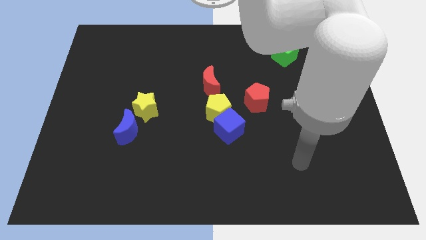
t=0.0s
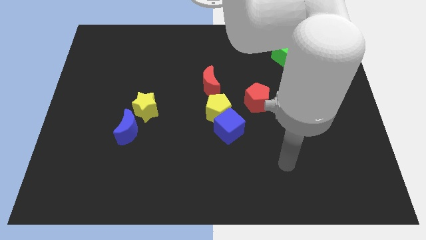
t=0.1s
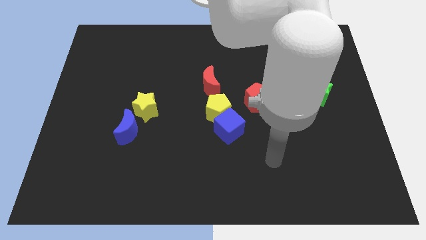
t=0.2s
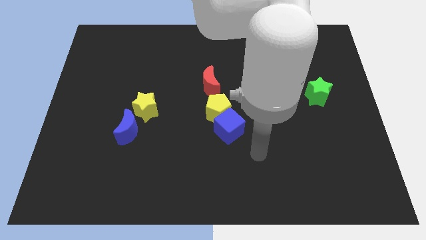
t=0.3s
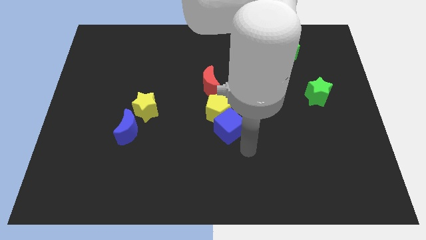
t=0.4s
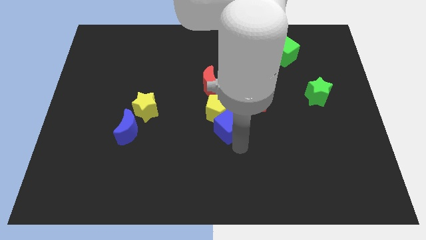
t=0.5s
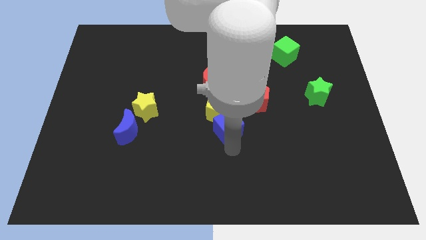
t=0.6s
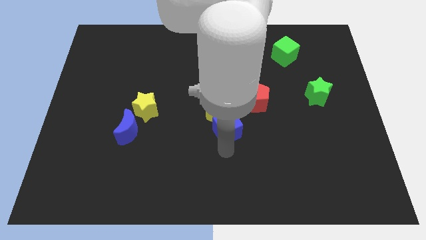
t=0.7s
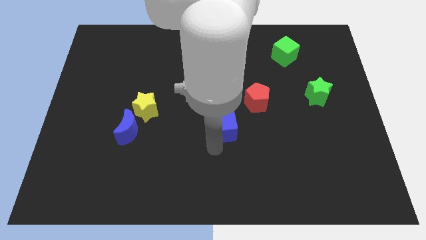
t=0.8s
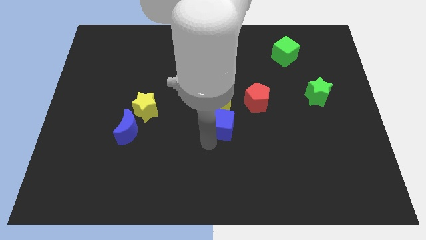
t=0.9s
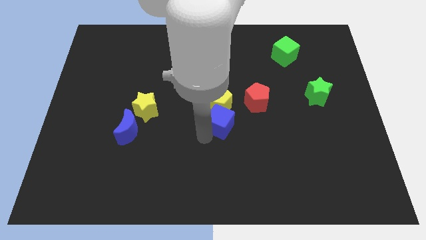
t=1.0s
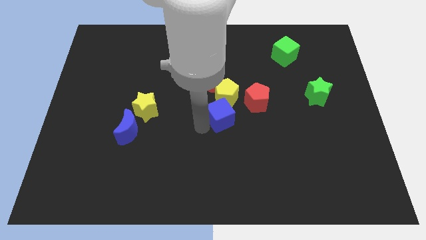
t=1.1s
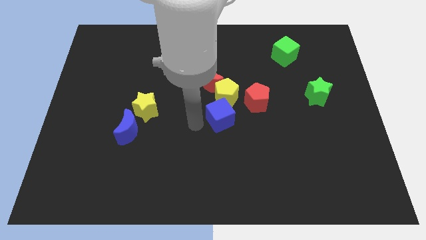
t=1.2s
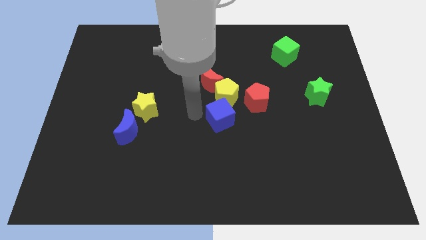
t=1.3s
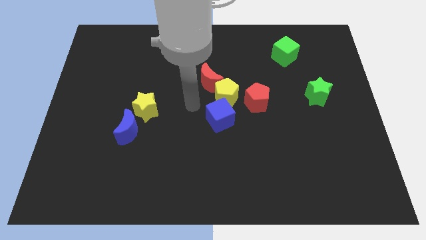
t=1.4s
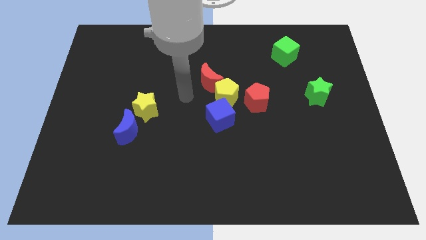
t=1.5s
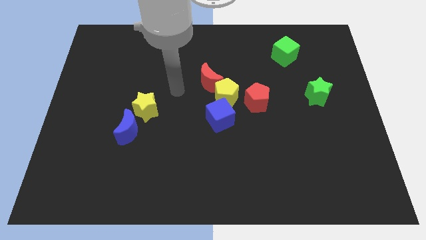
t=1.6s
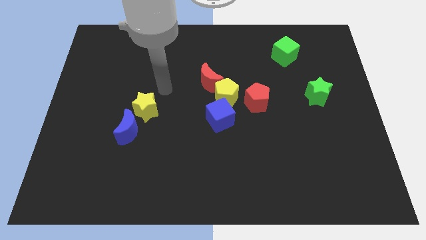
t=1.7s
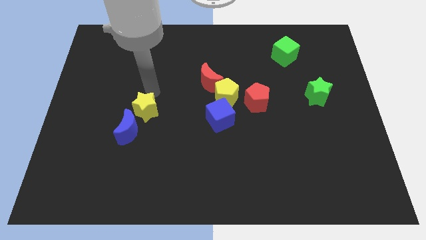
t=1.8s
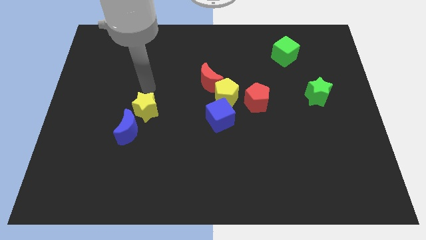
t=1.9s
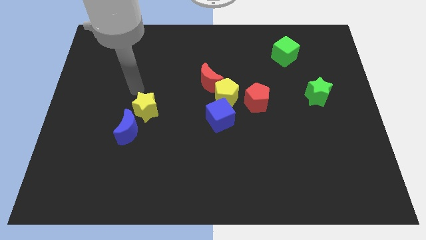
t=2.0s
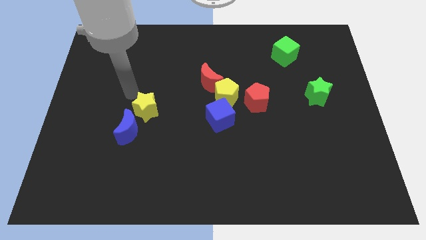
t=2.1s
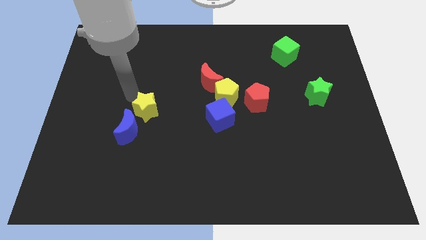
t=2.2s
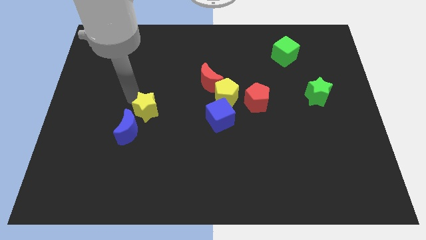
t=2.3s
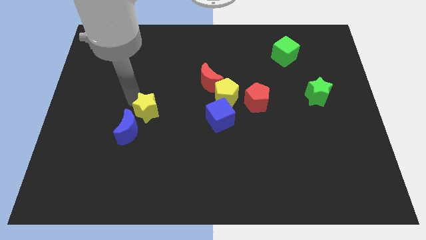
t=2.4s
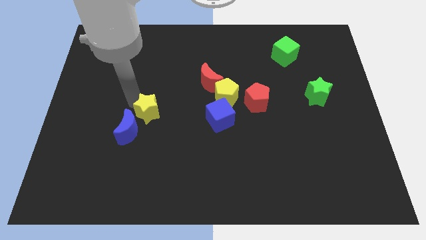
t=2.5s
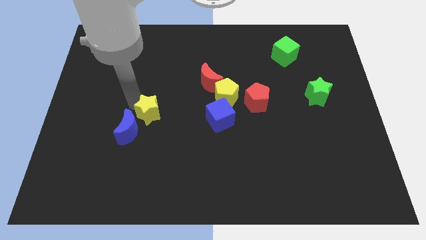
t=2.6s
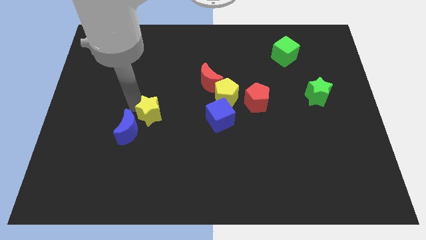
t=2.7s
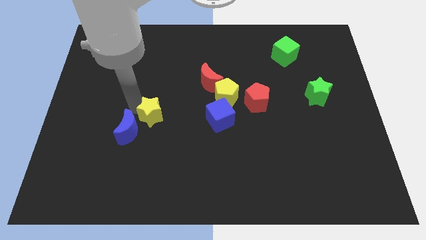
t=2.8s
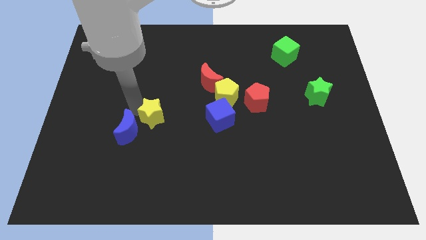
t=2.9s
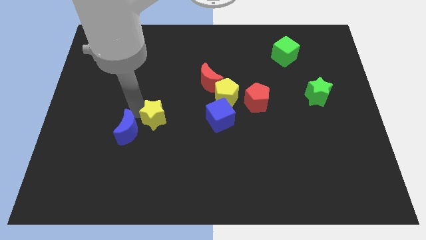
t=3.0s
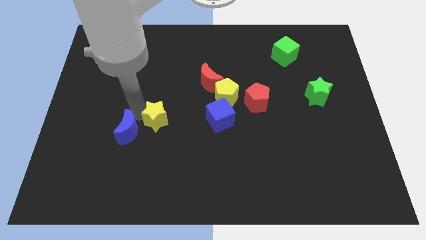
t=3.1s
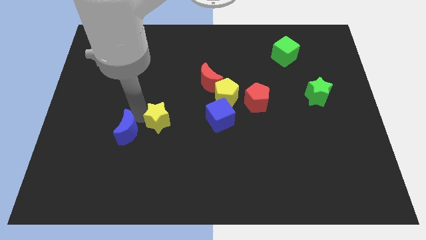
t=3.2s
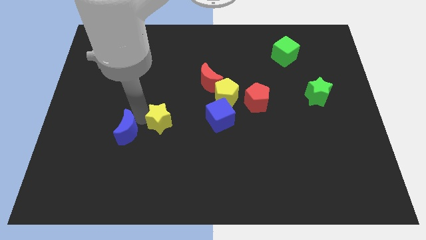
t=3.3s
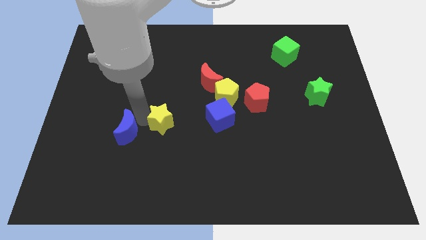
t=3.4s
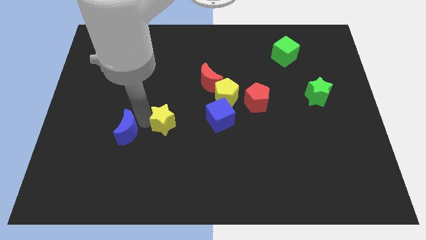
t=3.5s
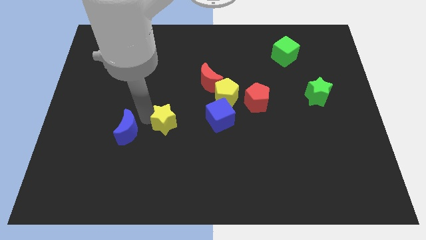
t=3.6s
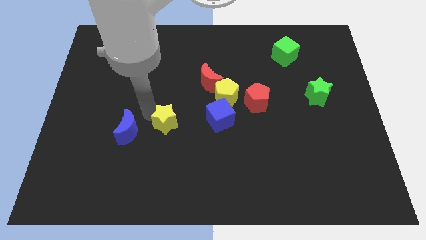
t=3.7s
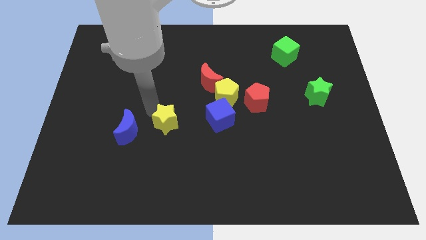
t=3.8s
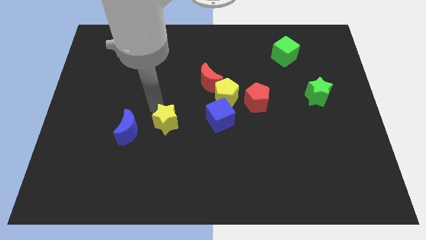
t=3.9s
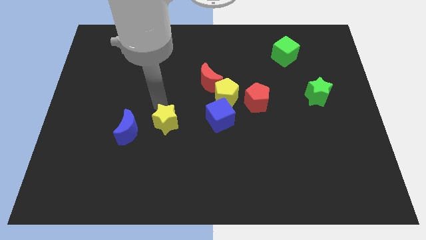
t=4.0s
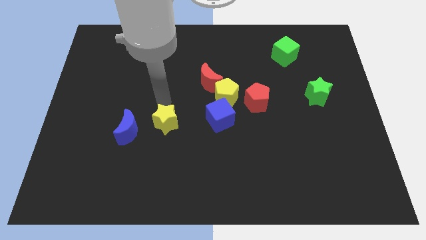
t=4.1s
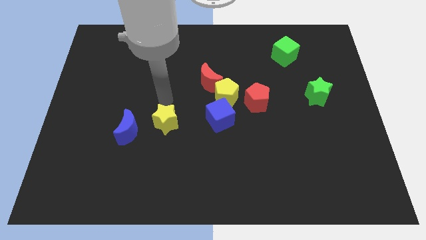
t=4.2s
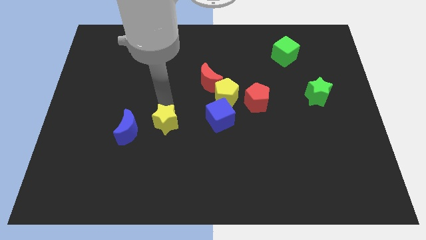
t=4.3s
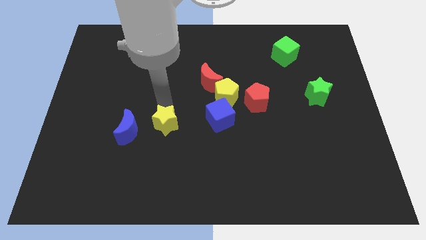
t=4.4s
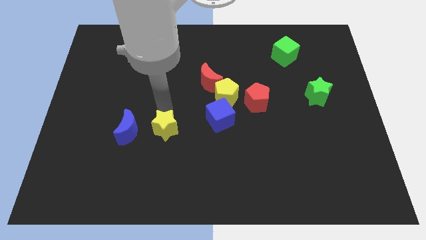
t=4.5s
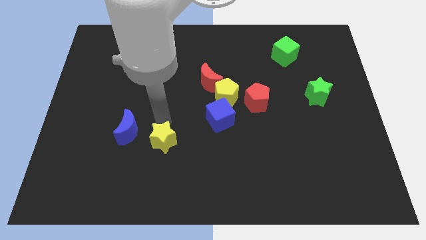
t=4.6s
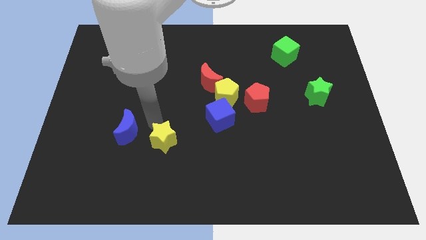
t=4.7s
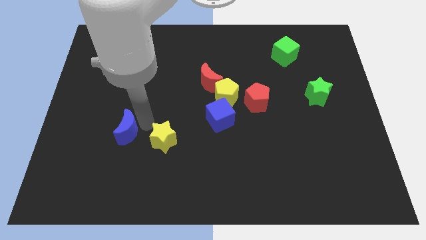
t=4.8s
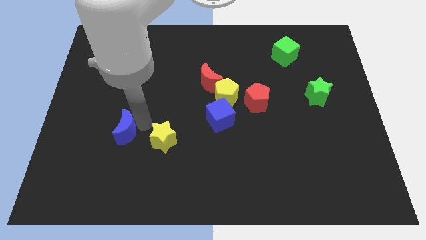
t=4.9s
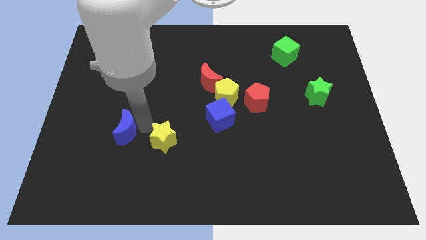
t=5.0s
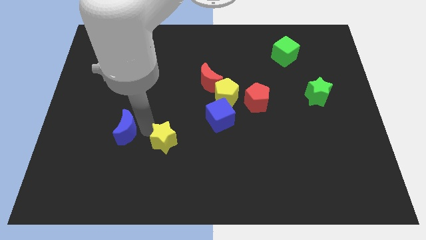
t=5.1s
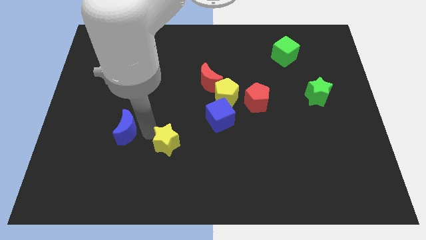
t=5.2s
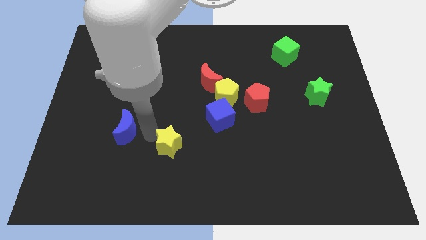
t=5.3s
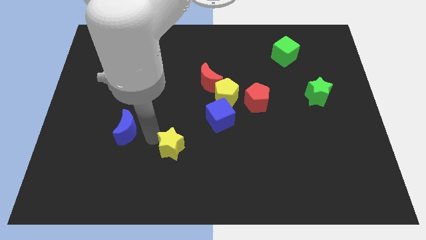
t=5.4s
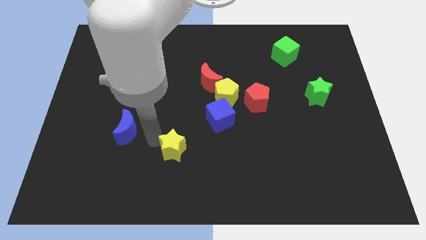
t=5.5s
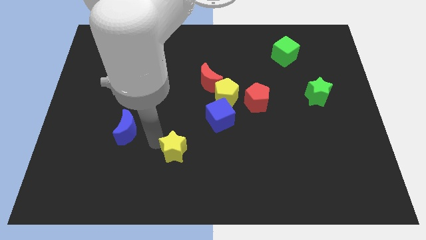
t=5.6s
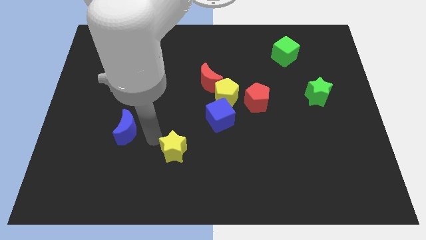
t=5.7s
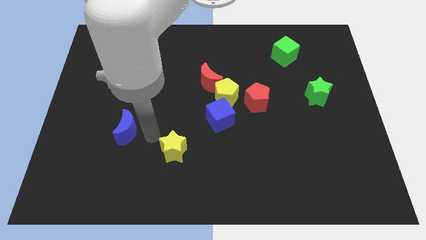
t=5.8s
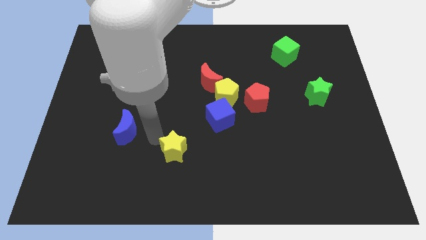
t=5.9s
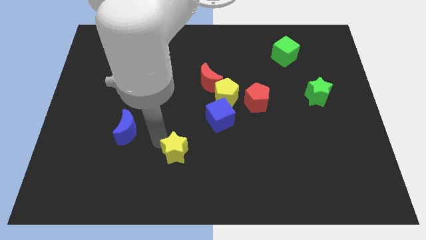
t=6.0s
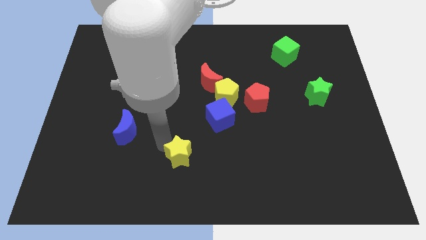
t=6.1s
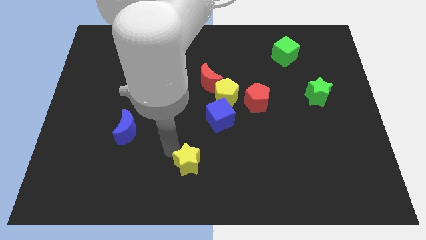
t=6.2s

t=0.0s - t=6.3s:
move the yellow star to the bottom

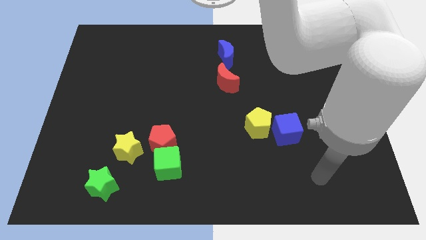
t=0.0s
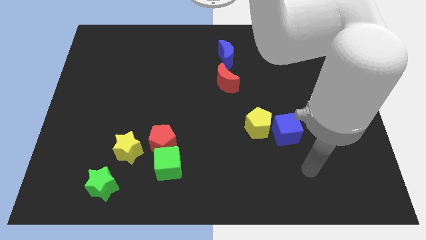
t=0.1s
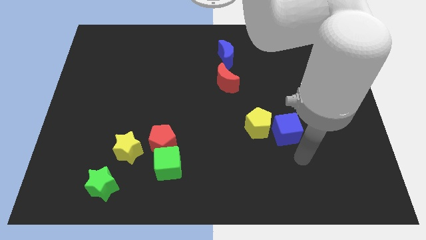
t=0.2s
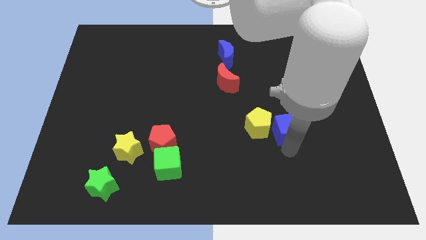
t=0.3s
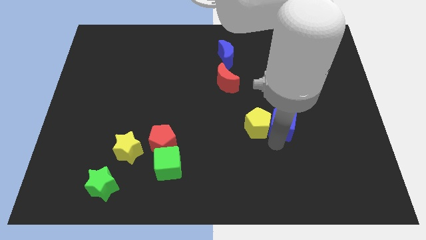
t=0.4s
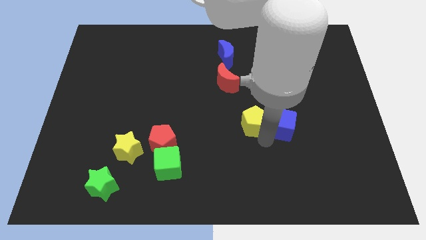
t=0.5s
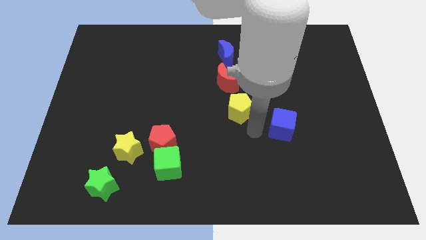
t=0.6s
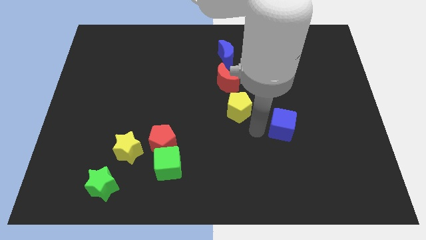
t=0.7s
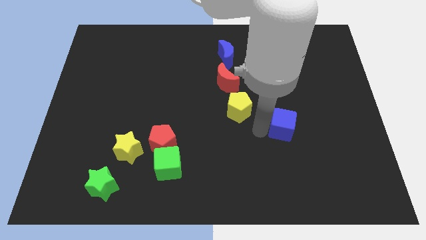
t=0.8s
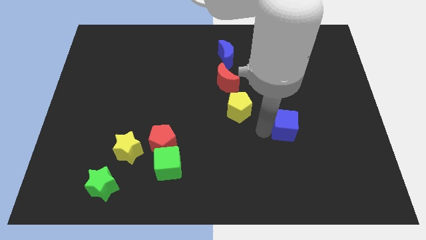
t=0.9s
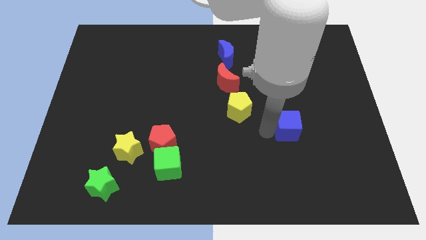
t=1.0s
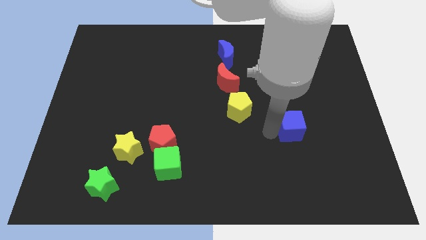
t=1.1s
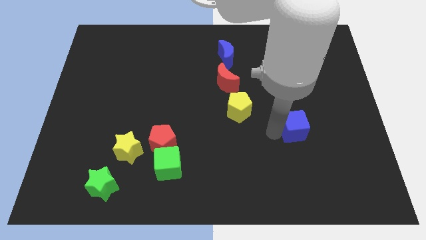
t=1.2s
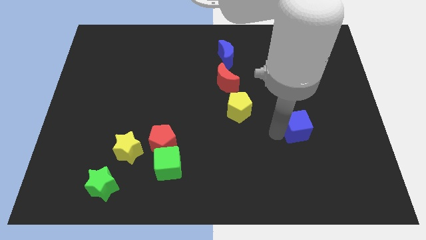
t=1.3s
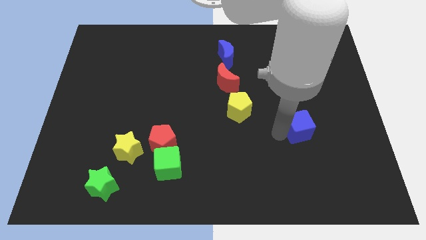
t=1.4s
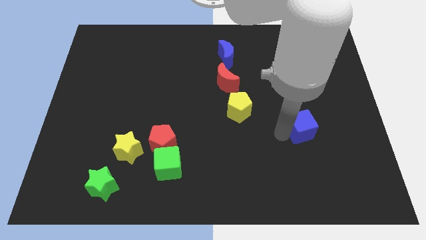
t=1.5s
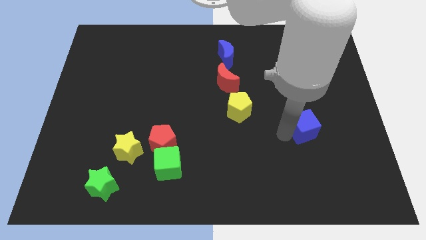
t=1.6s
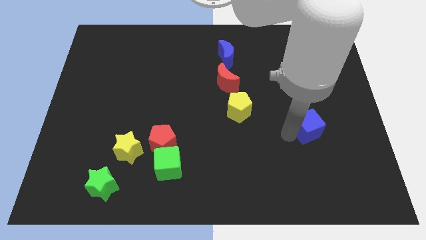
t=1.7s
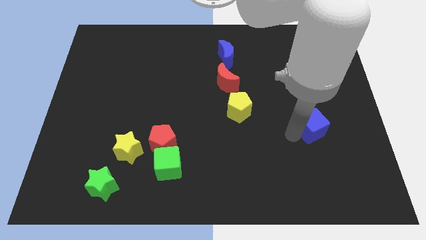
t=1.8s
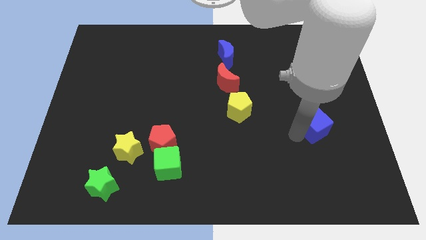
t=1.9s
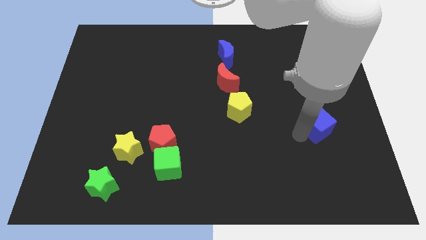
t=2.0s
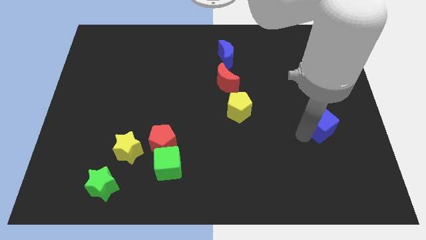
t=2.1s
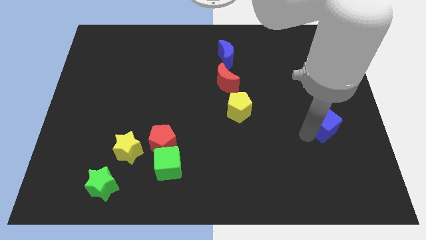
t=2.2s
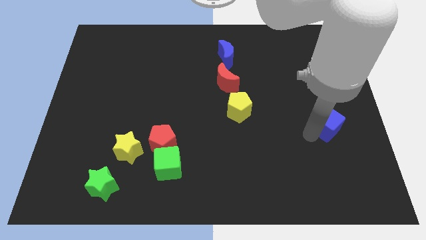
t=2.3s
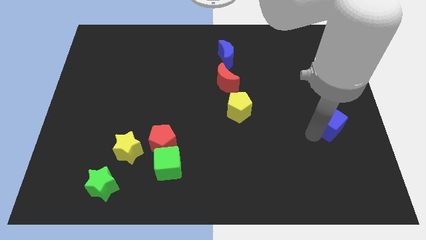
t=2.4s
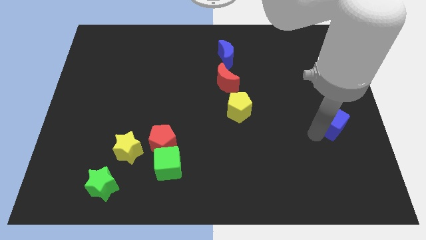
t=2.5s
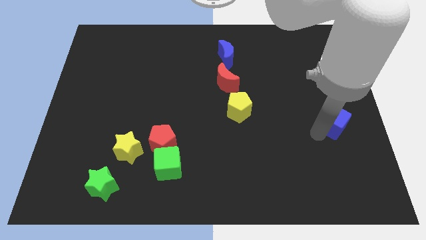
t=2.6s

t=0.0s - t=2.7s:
put the blue cube to the right side of the board
